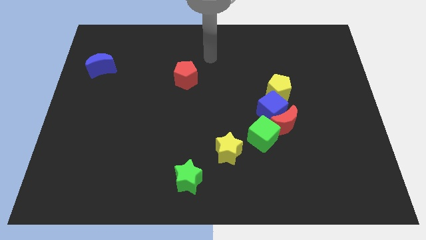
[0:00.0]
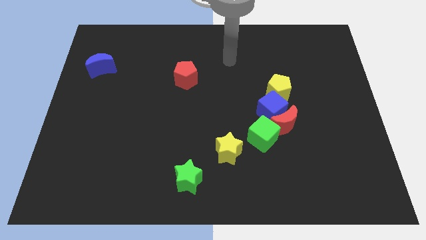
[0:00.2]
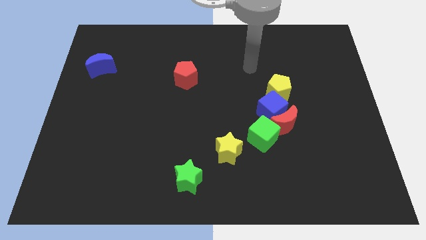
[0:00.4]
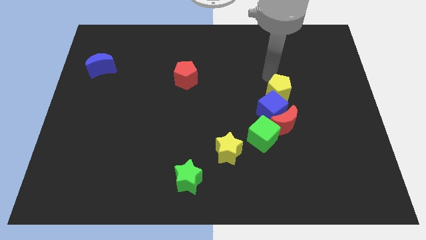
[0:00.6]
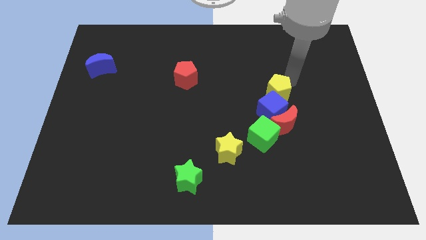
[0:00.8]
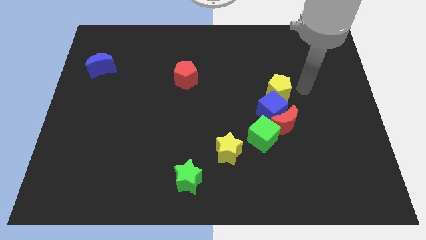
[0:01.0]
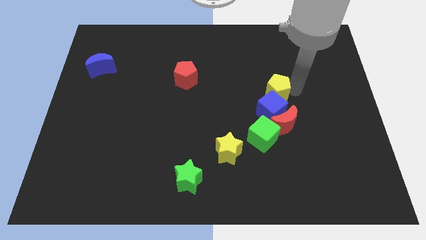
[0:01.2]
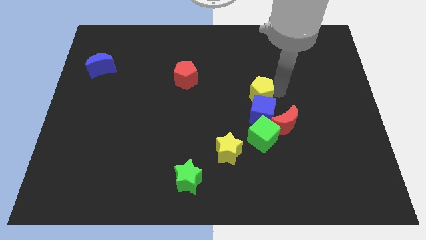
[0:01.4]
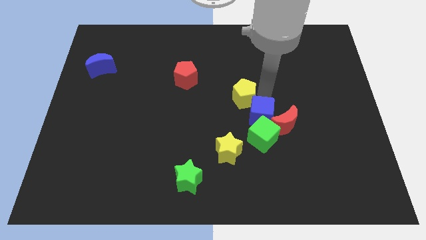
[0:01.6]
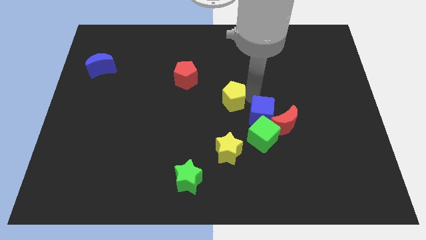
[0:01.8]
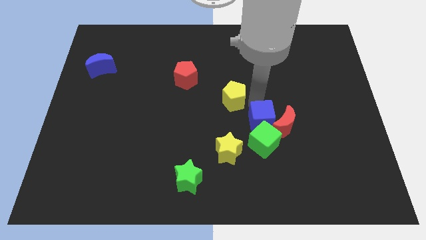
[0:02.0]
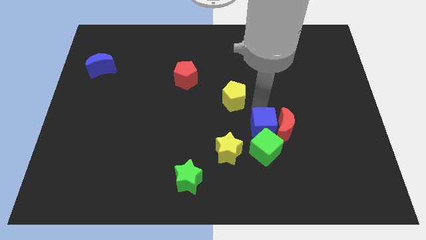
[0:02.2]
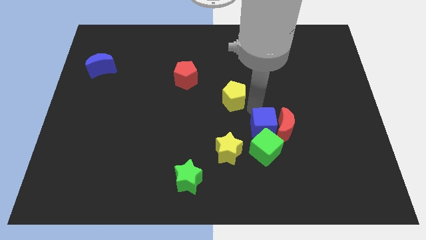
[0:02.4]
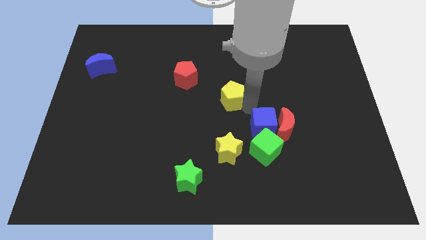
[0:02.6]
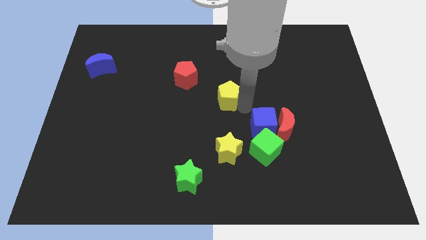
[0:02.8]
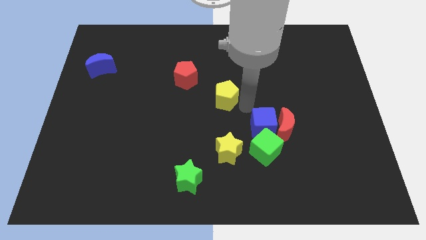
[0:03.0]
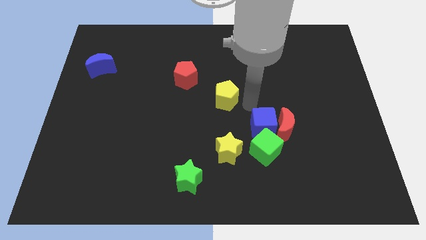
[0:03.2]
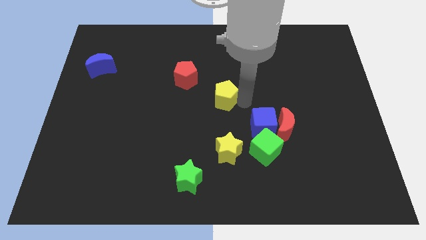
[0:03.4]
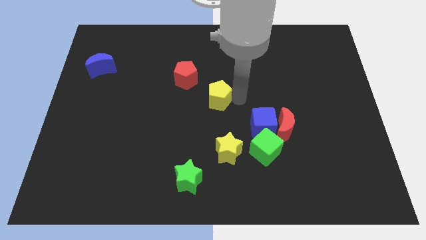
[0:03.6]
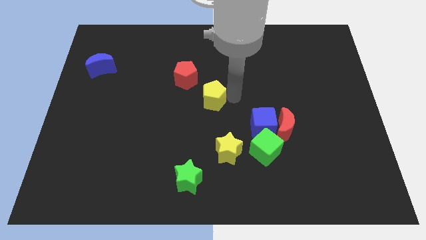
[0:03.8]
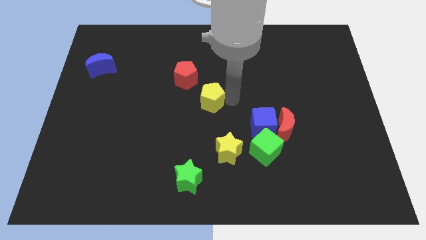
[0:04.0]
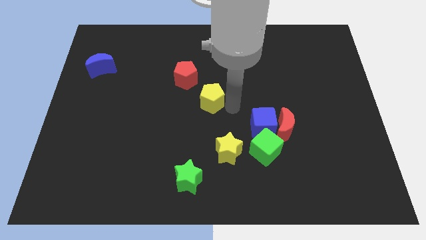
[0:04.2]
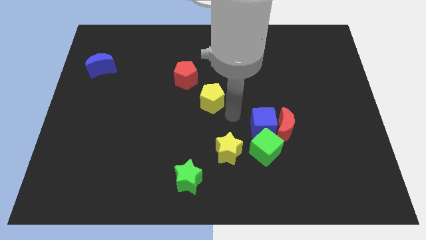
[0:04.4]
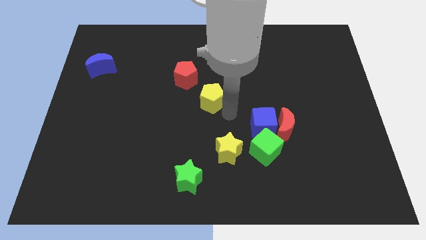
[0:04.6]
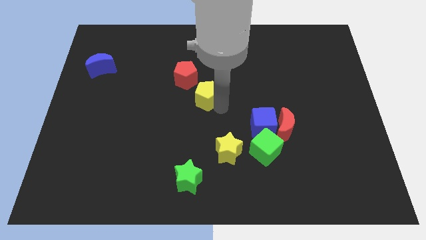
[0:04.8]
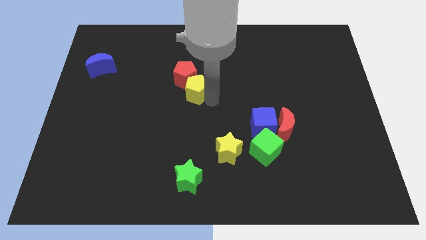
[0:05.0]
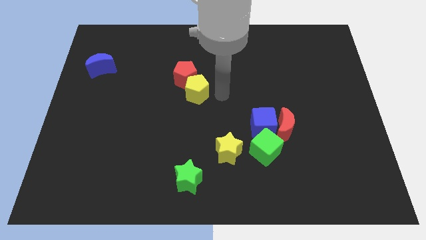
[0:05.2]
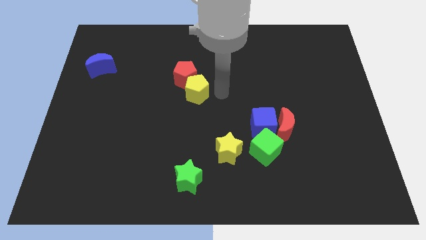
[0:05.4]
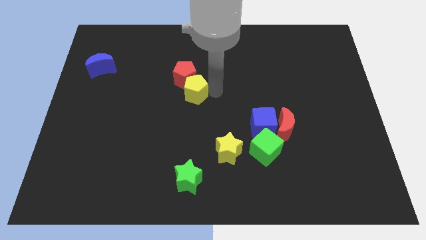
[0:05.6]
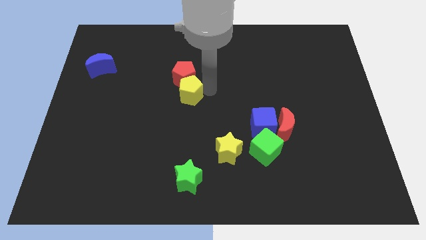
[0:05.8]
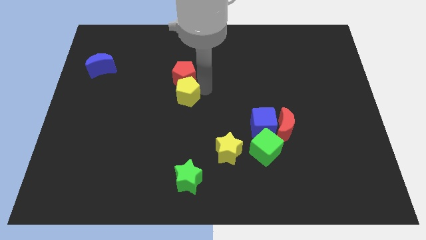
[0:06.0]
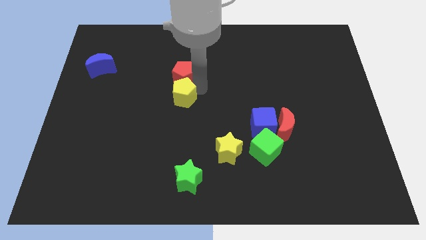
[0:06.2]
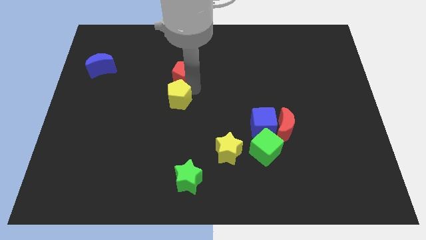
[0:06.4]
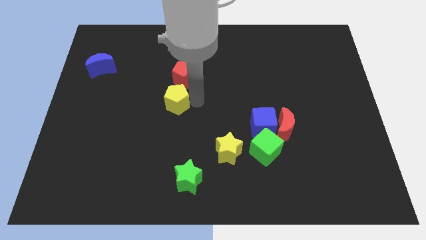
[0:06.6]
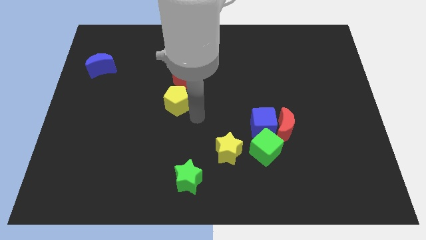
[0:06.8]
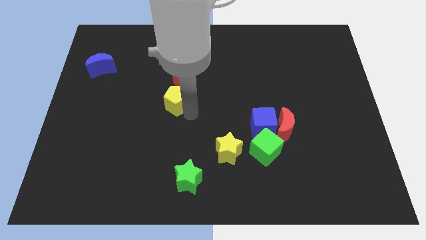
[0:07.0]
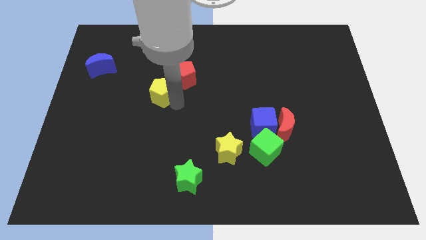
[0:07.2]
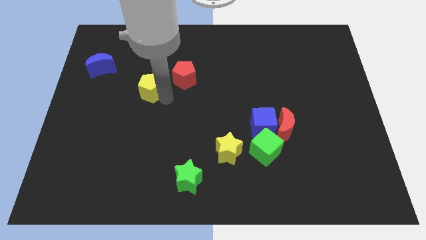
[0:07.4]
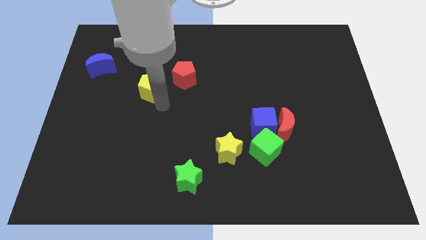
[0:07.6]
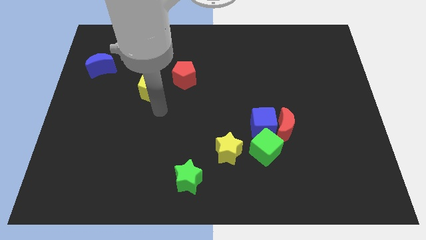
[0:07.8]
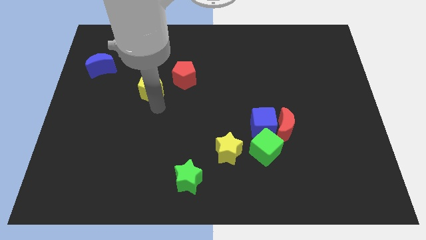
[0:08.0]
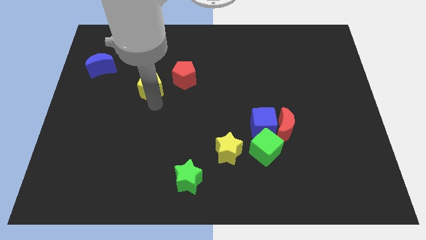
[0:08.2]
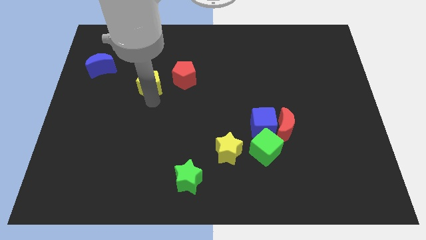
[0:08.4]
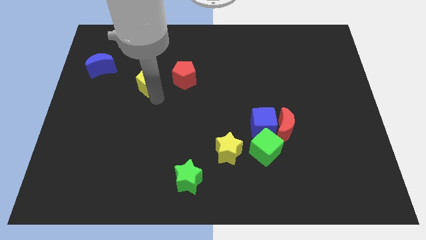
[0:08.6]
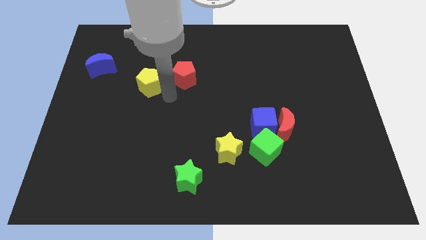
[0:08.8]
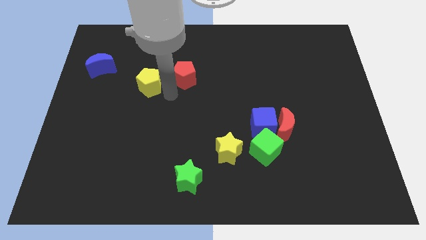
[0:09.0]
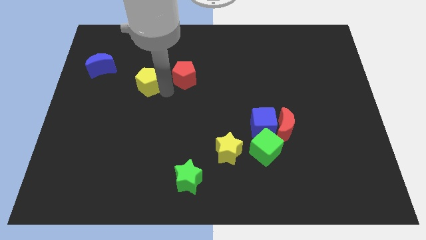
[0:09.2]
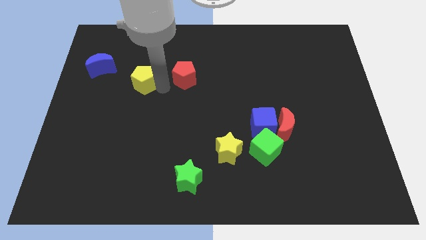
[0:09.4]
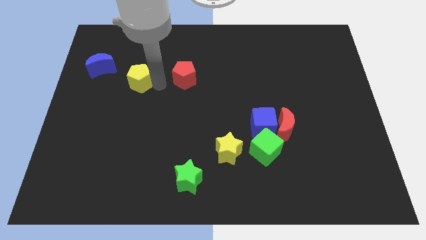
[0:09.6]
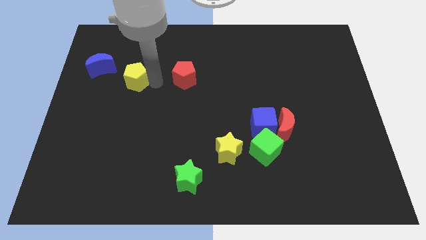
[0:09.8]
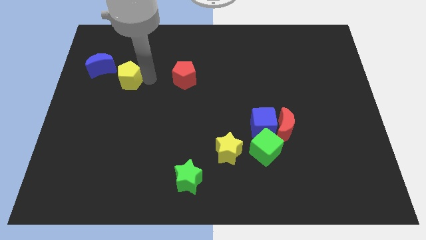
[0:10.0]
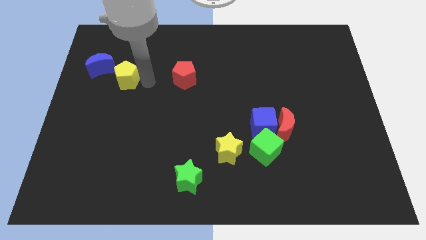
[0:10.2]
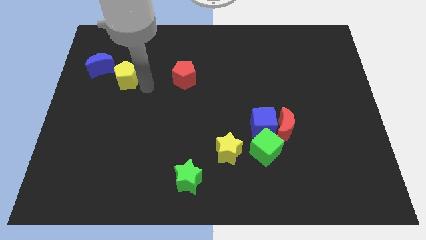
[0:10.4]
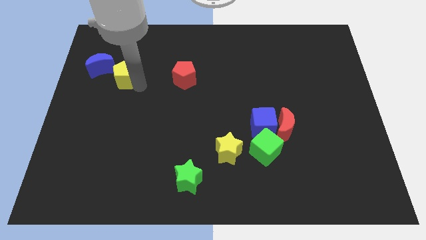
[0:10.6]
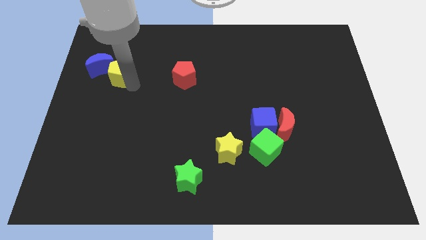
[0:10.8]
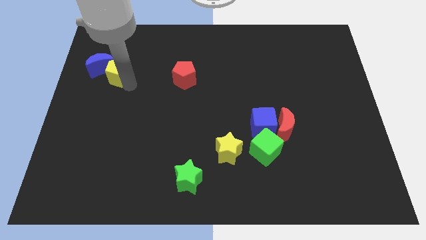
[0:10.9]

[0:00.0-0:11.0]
slide the yellow pentagon towards the blue moon

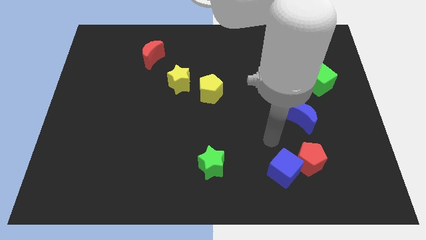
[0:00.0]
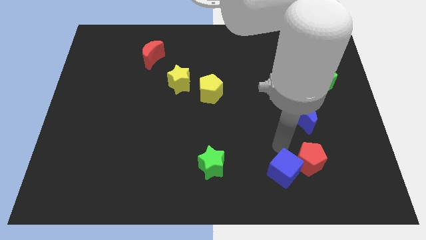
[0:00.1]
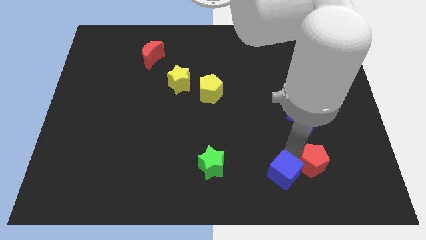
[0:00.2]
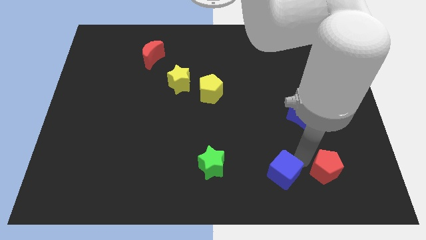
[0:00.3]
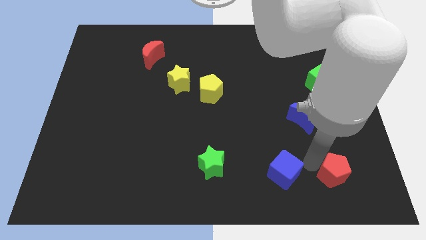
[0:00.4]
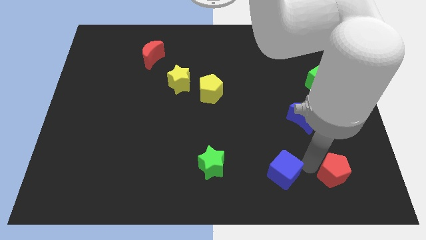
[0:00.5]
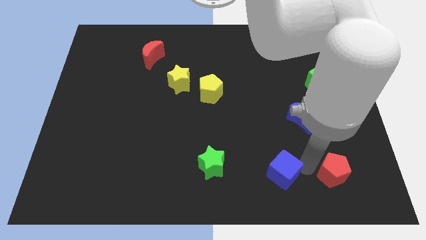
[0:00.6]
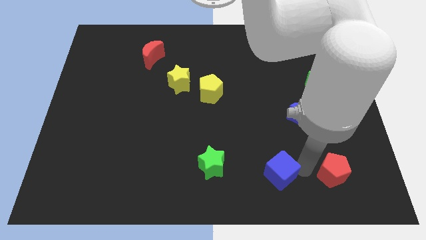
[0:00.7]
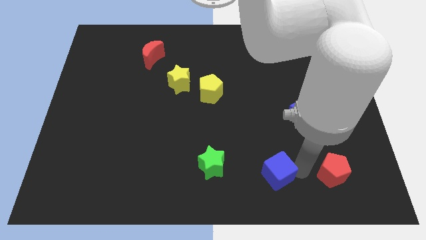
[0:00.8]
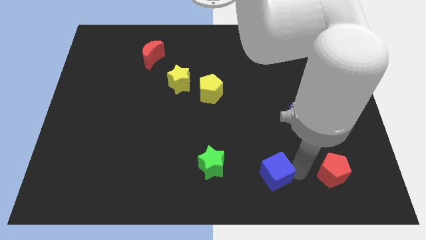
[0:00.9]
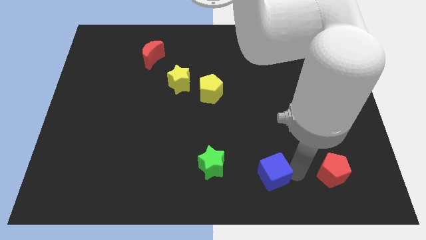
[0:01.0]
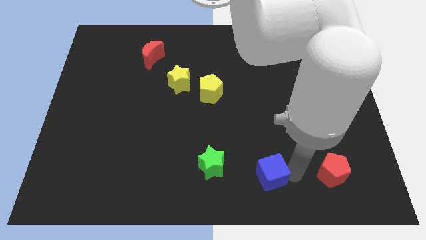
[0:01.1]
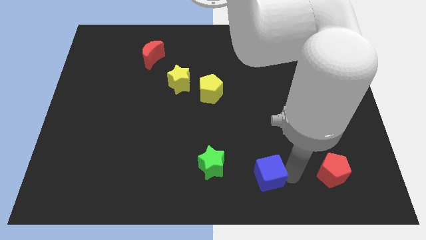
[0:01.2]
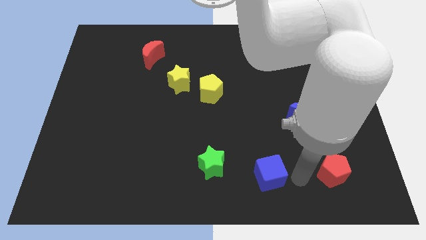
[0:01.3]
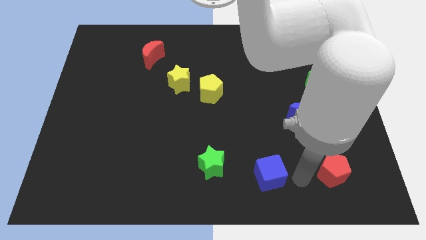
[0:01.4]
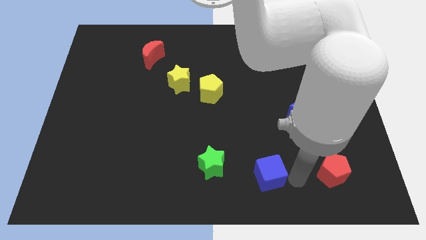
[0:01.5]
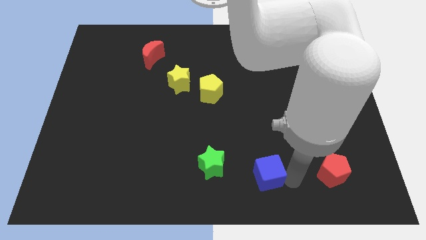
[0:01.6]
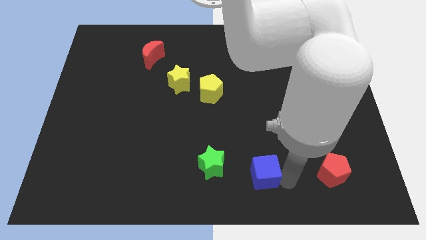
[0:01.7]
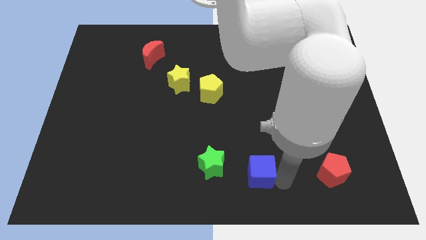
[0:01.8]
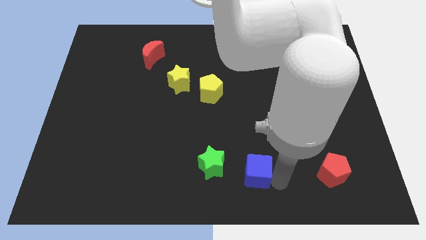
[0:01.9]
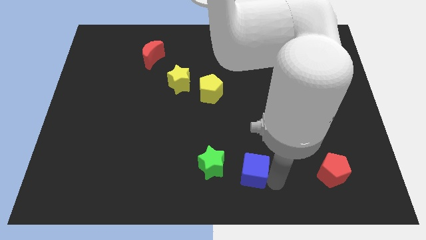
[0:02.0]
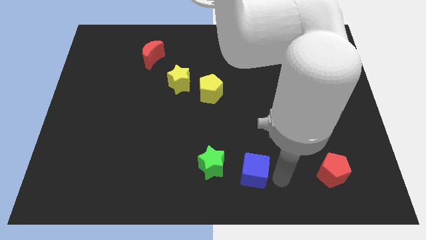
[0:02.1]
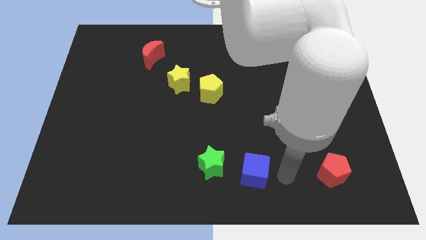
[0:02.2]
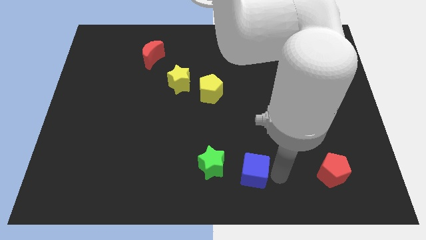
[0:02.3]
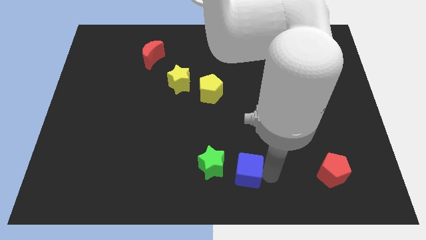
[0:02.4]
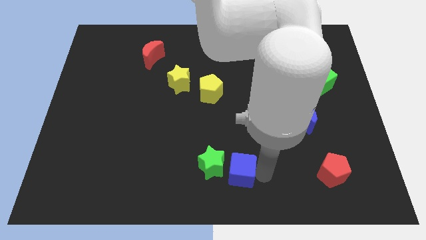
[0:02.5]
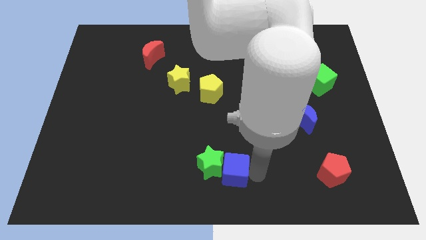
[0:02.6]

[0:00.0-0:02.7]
slide the blue cube next to the green star
